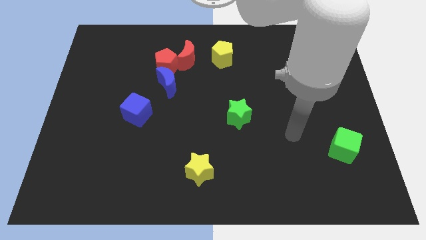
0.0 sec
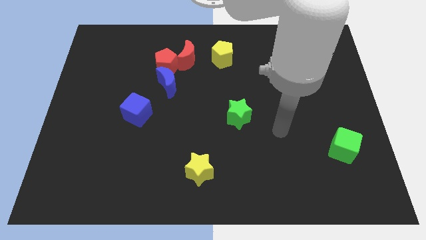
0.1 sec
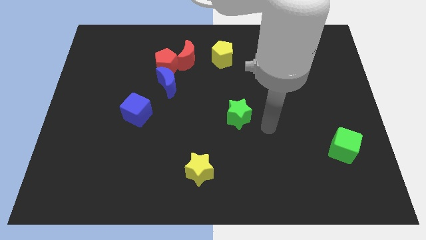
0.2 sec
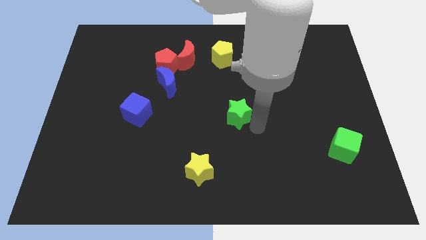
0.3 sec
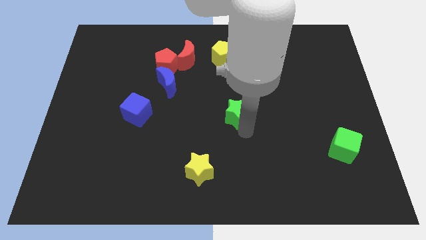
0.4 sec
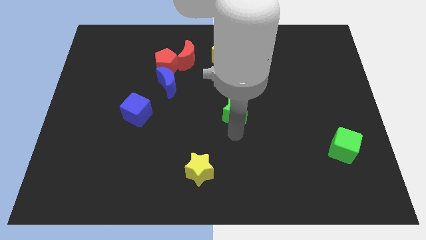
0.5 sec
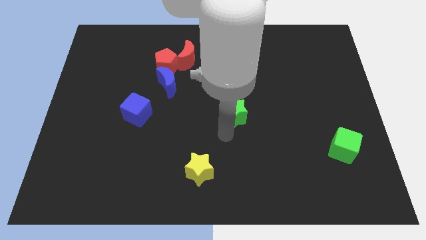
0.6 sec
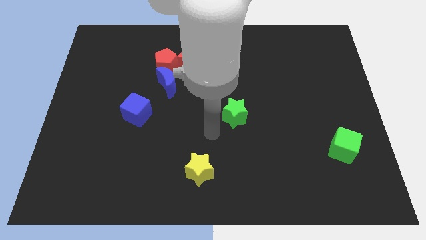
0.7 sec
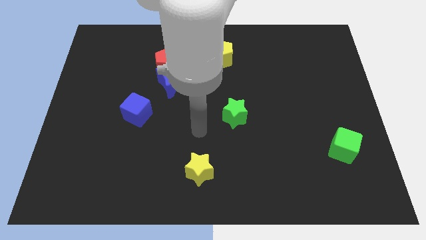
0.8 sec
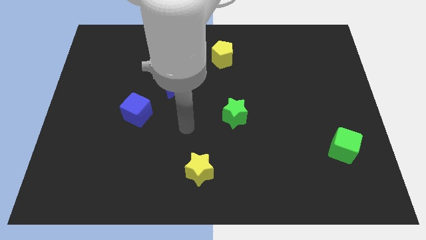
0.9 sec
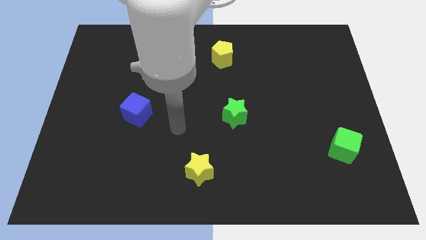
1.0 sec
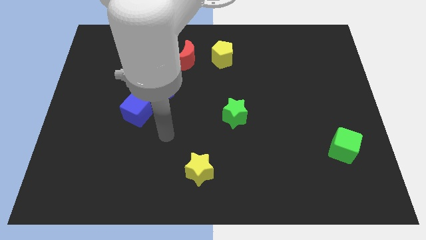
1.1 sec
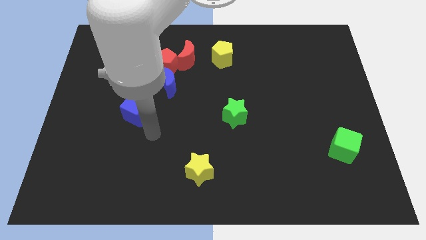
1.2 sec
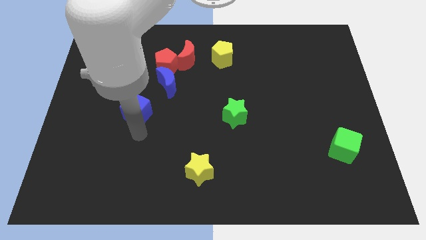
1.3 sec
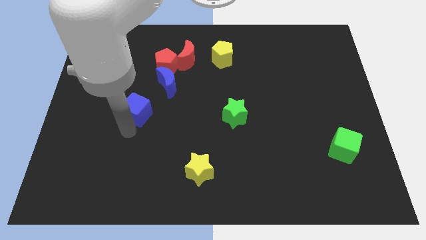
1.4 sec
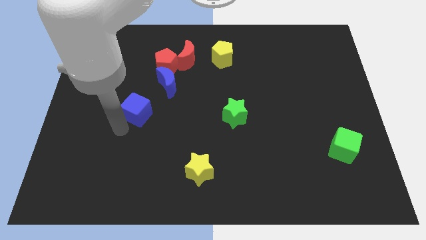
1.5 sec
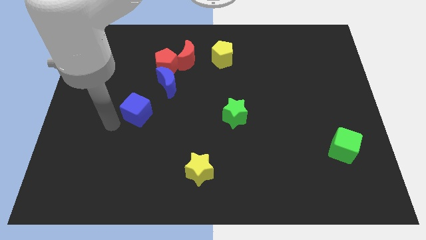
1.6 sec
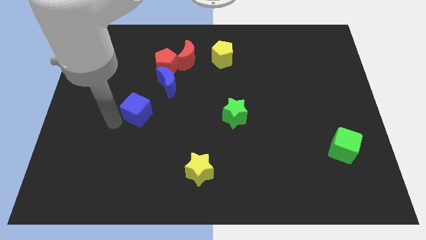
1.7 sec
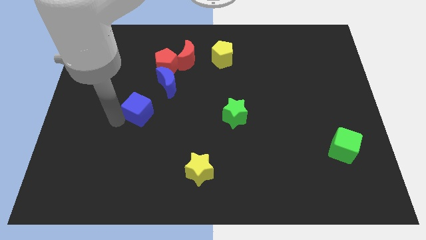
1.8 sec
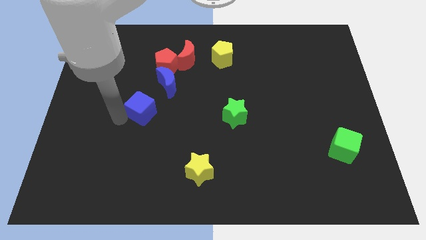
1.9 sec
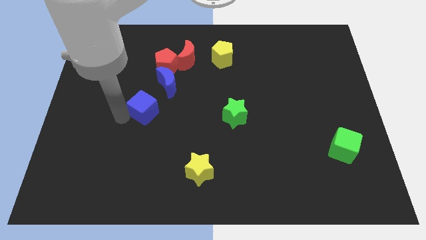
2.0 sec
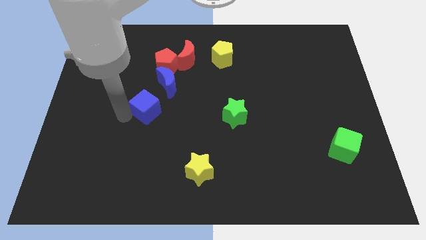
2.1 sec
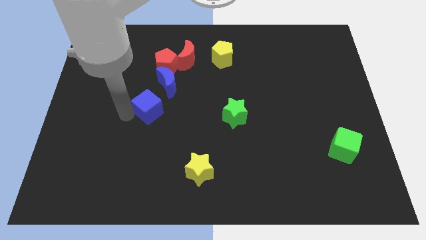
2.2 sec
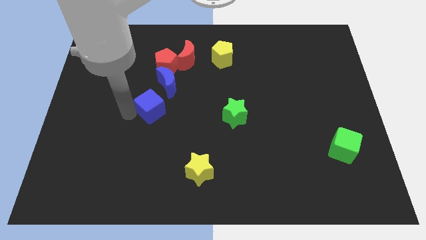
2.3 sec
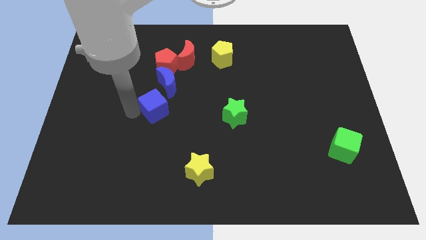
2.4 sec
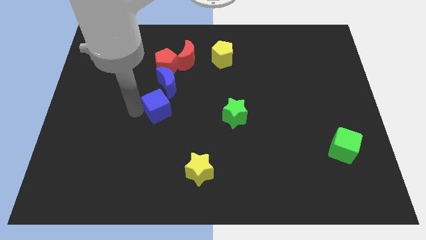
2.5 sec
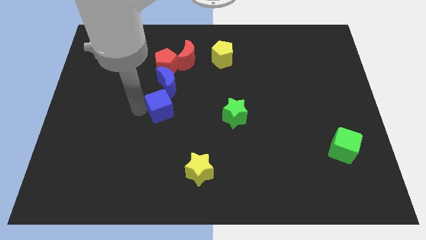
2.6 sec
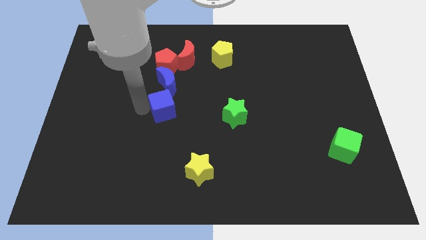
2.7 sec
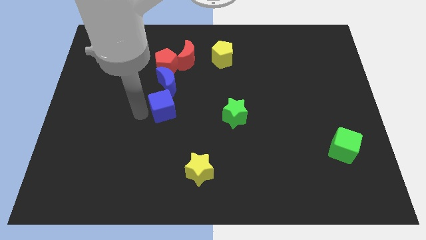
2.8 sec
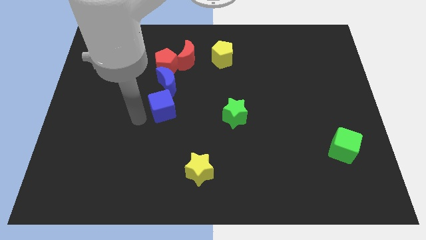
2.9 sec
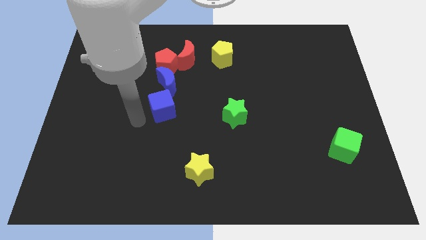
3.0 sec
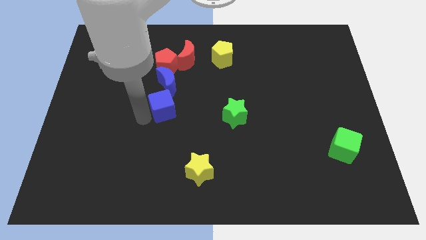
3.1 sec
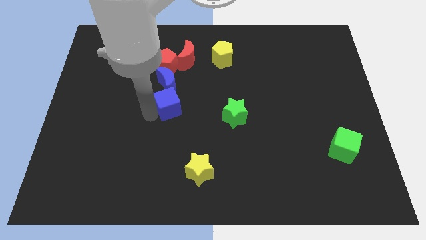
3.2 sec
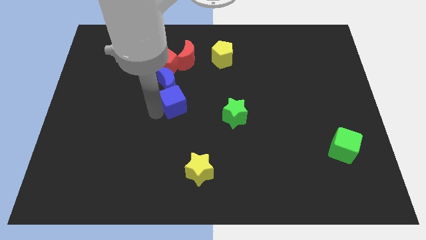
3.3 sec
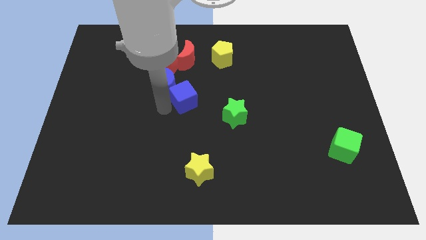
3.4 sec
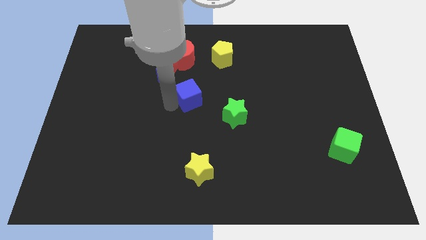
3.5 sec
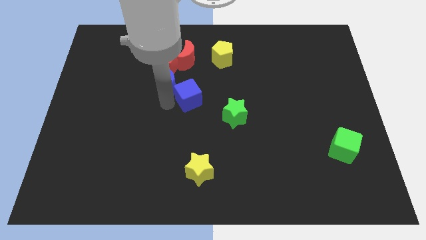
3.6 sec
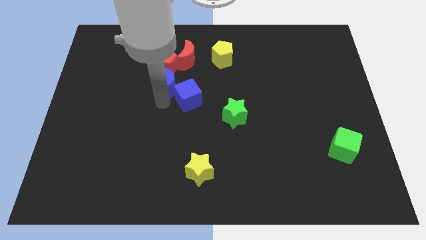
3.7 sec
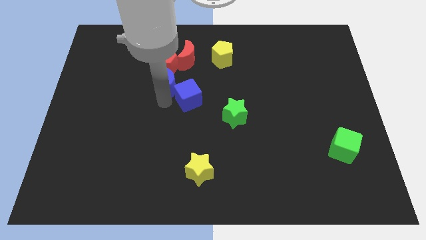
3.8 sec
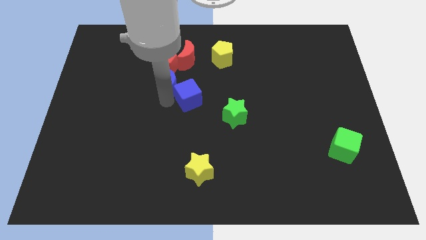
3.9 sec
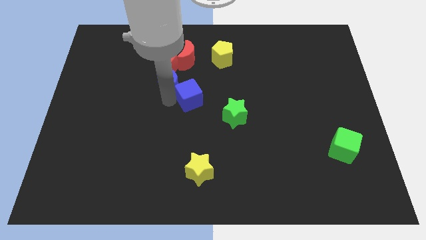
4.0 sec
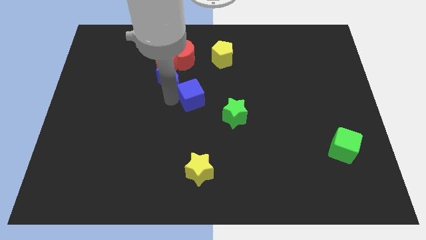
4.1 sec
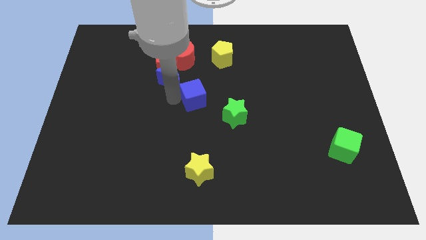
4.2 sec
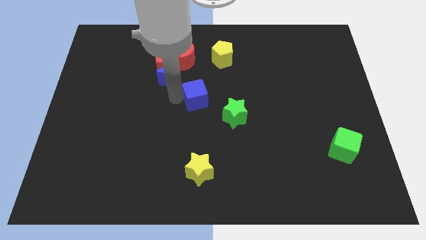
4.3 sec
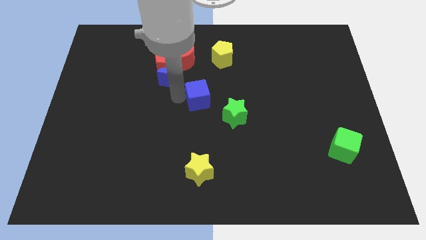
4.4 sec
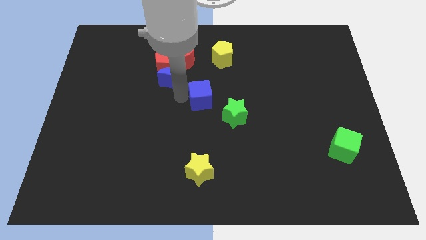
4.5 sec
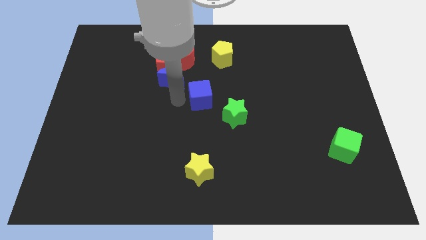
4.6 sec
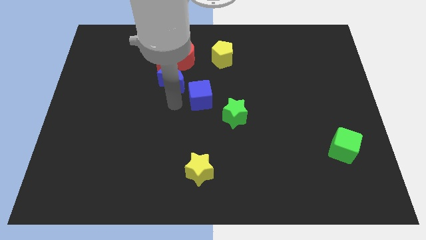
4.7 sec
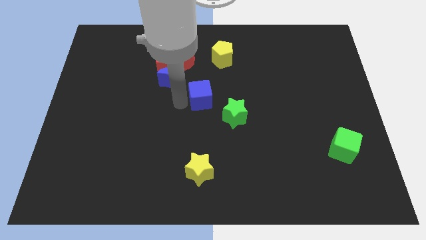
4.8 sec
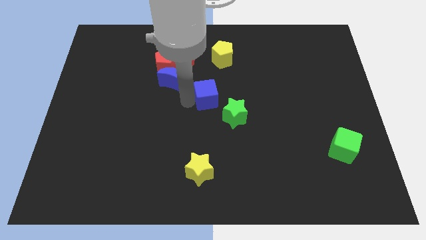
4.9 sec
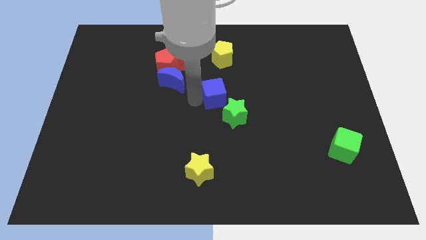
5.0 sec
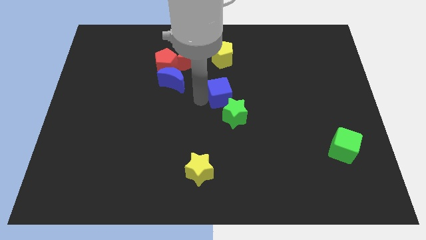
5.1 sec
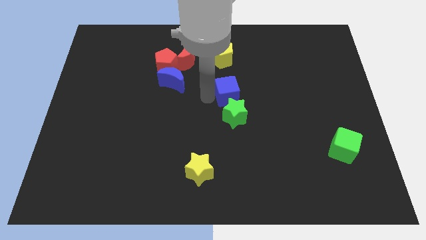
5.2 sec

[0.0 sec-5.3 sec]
move the blue cube right

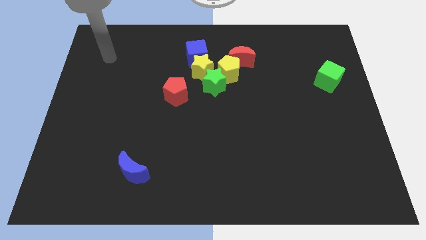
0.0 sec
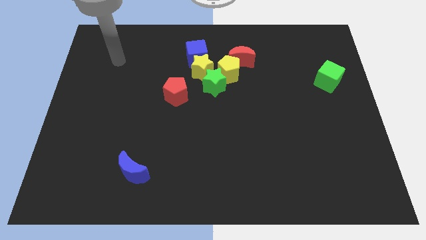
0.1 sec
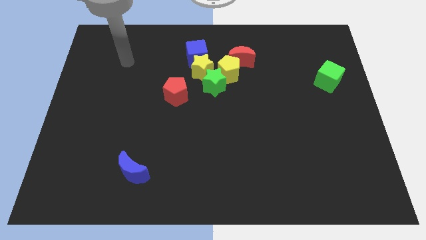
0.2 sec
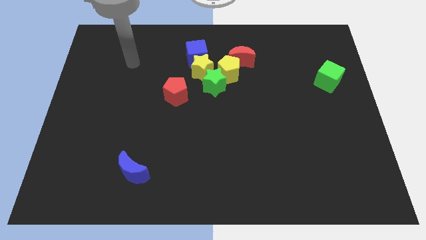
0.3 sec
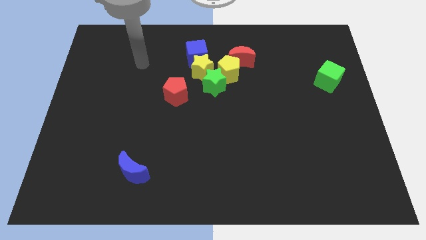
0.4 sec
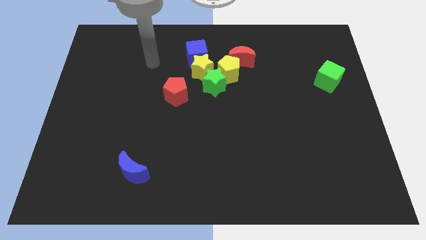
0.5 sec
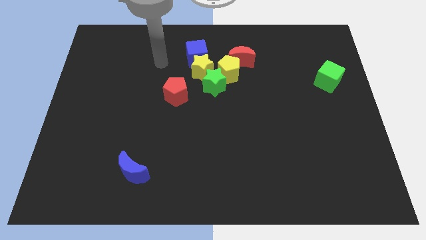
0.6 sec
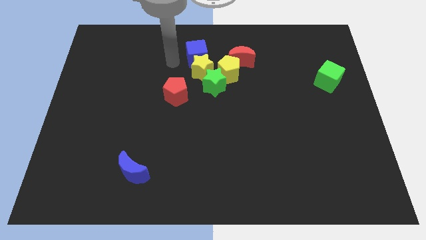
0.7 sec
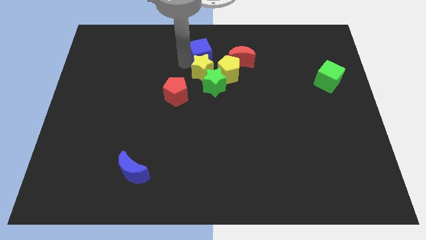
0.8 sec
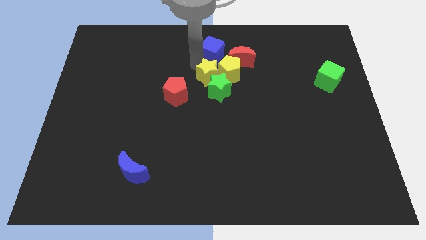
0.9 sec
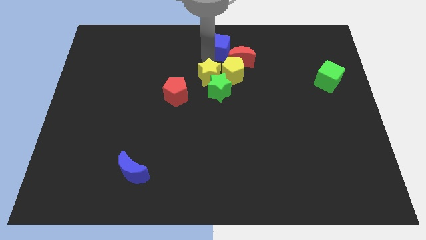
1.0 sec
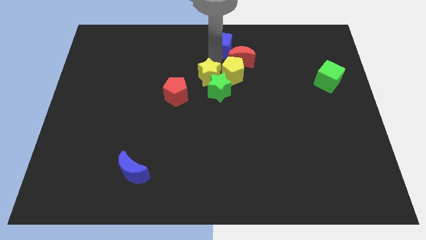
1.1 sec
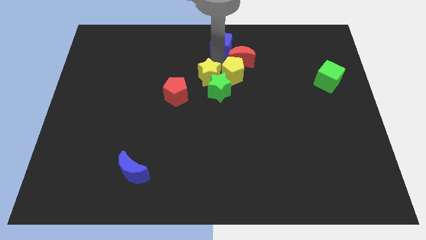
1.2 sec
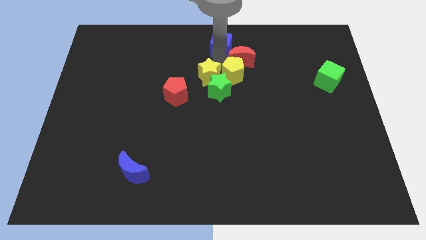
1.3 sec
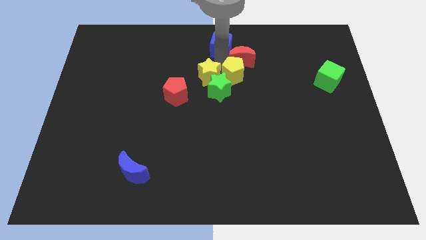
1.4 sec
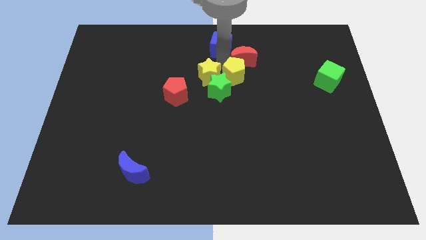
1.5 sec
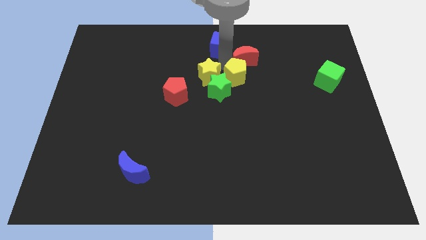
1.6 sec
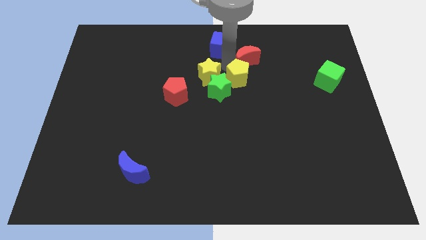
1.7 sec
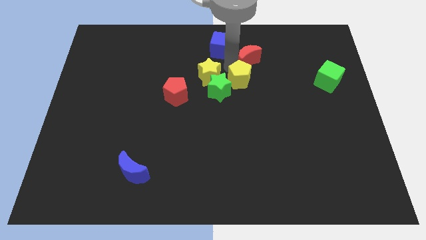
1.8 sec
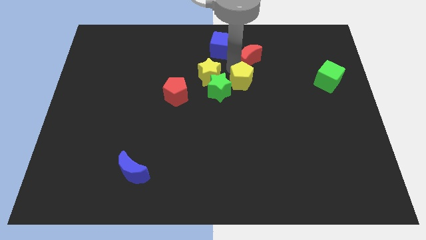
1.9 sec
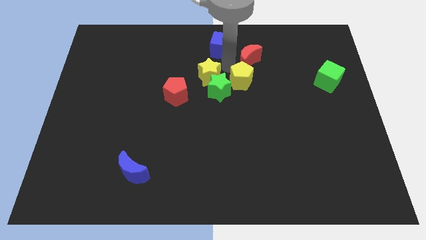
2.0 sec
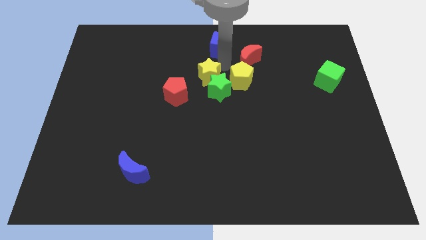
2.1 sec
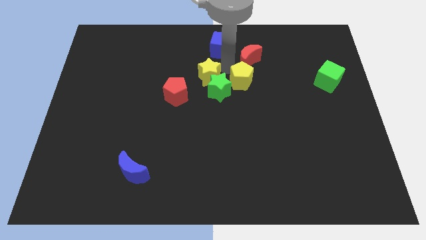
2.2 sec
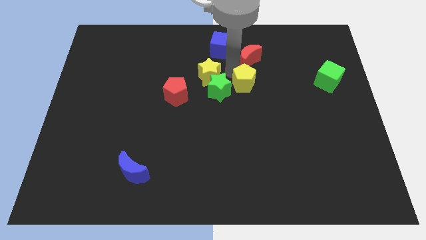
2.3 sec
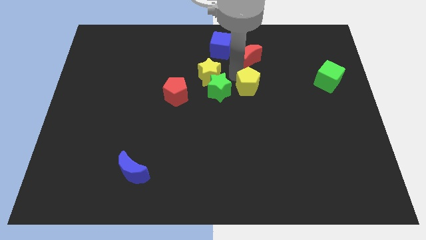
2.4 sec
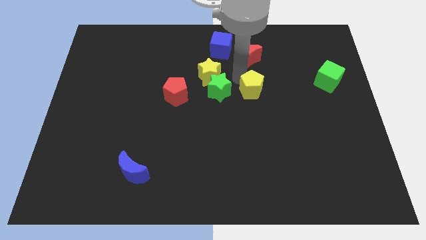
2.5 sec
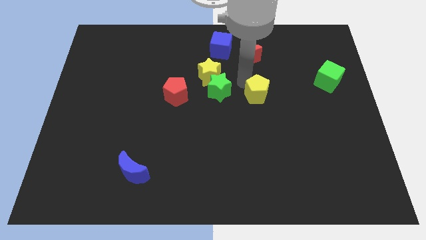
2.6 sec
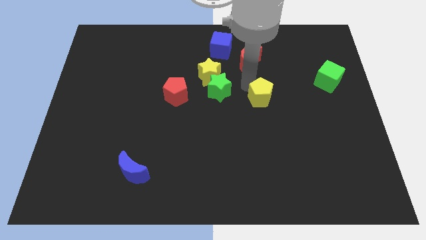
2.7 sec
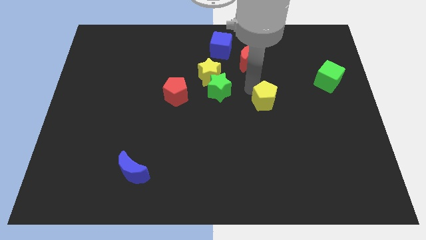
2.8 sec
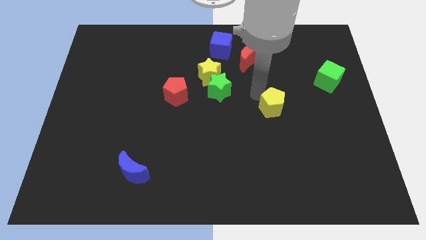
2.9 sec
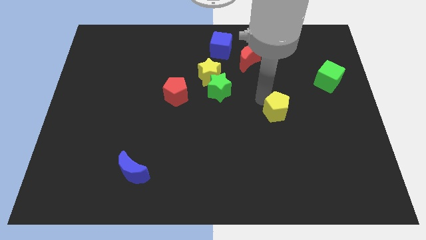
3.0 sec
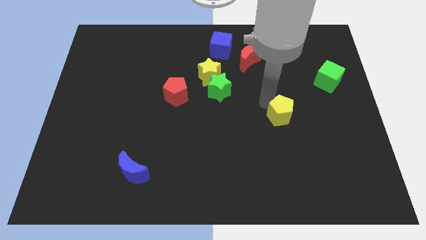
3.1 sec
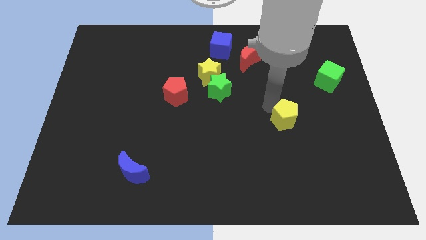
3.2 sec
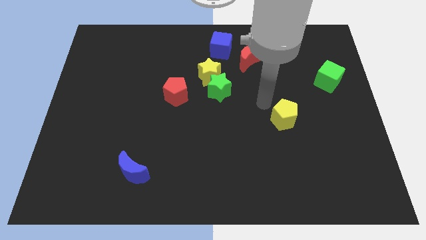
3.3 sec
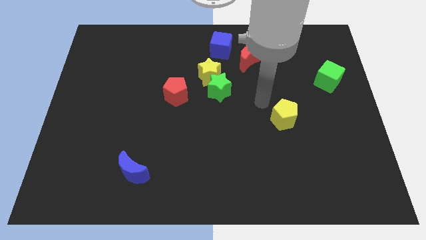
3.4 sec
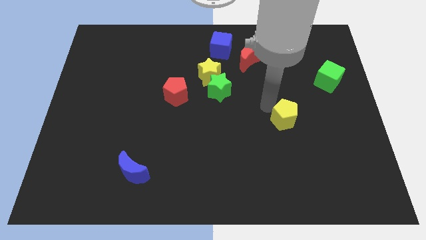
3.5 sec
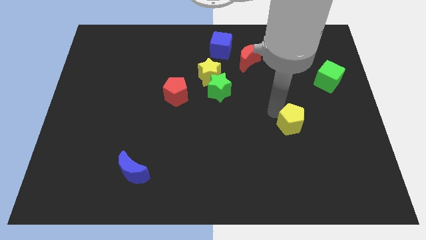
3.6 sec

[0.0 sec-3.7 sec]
push the yellow pentagon downwards and to the right diagonally
